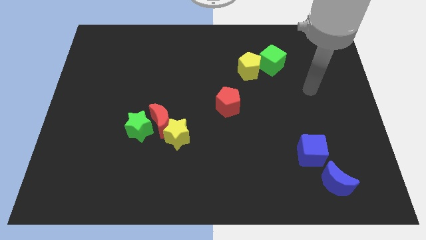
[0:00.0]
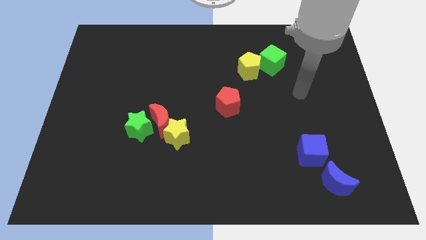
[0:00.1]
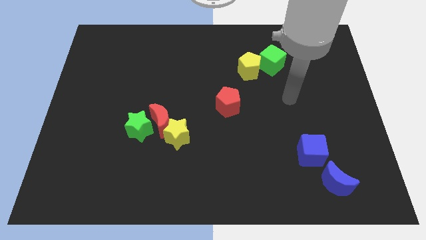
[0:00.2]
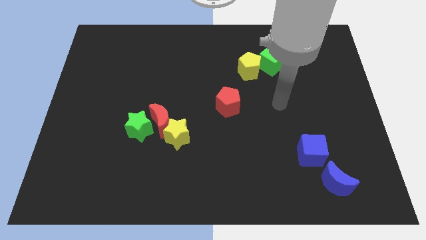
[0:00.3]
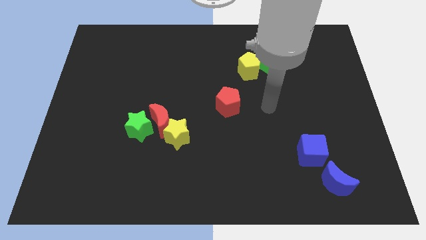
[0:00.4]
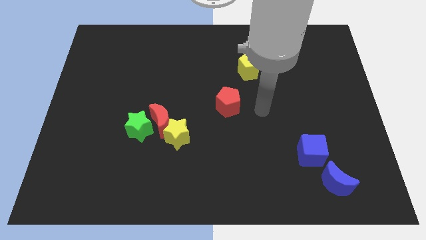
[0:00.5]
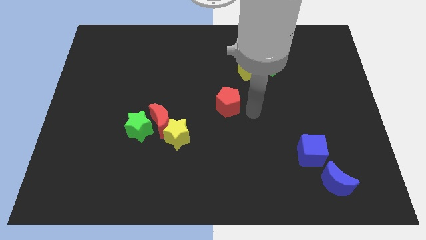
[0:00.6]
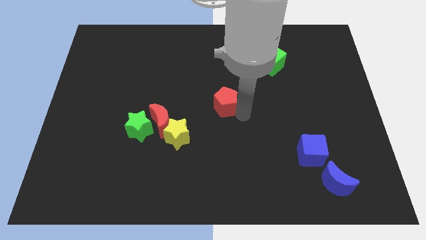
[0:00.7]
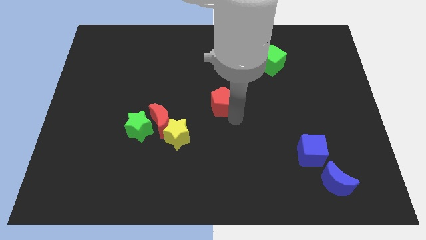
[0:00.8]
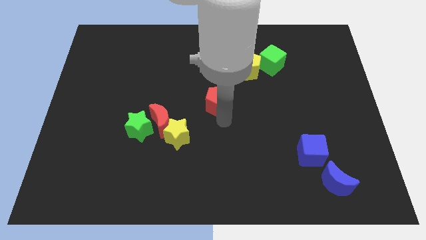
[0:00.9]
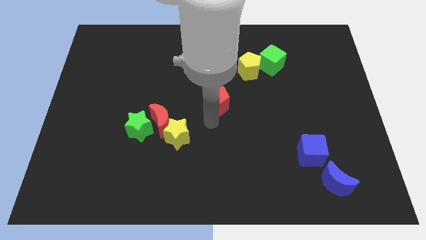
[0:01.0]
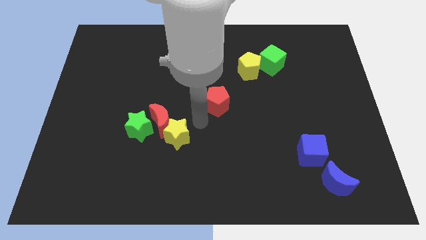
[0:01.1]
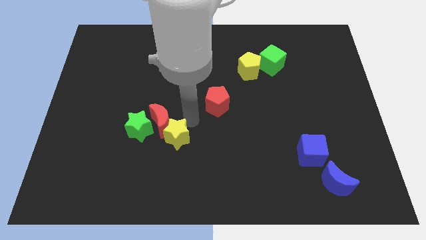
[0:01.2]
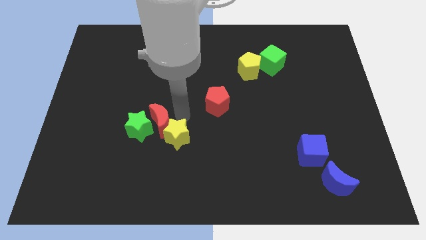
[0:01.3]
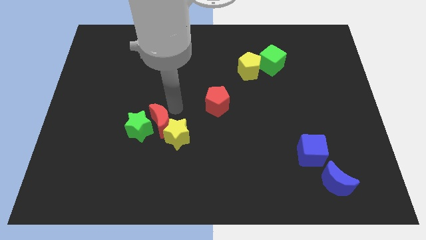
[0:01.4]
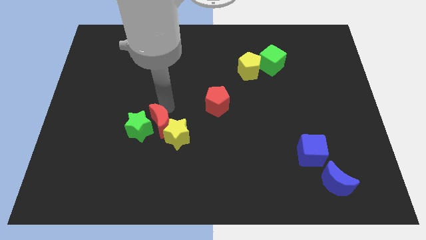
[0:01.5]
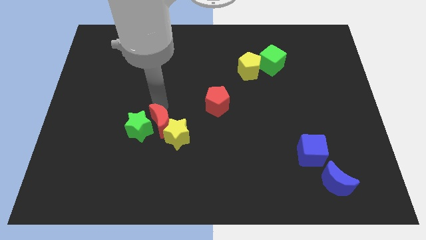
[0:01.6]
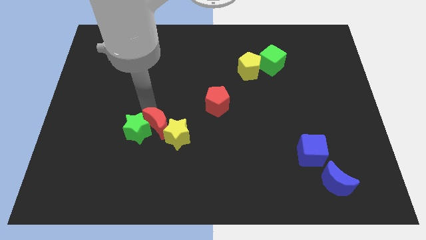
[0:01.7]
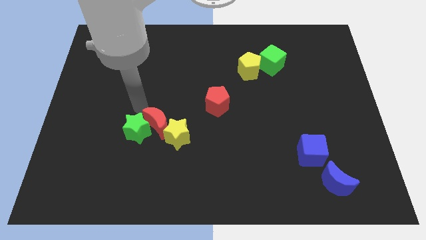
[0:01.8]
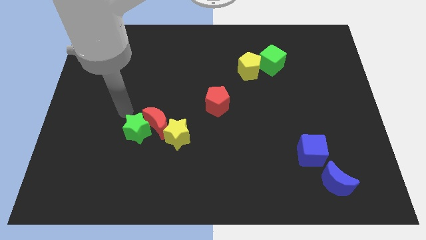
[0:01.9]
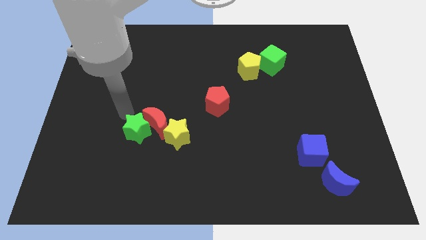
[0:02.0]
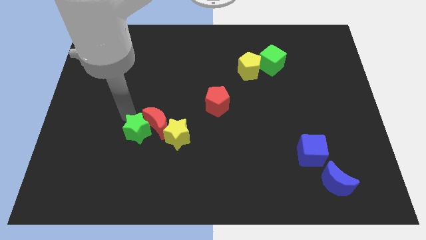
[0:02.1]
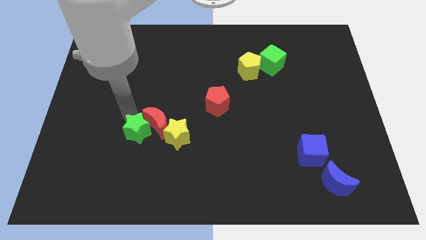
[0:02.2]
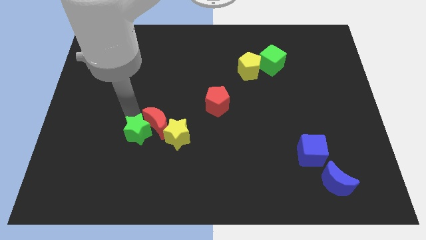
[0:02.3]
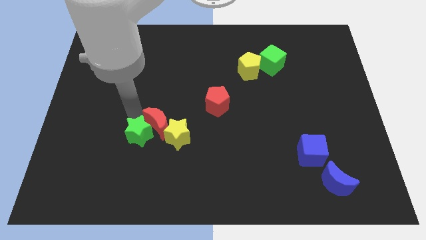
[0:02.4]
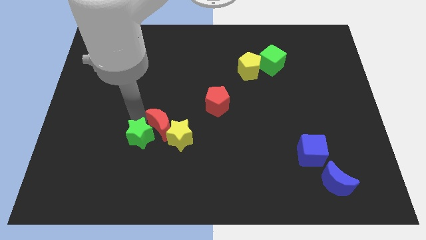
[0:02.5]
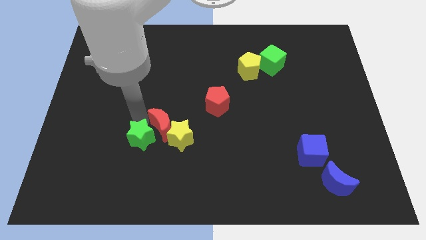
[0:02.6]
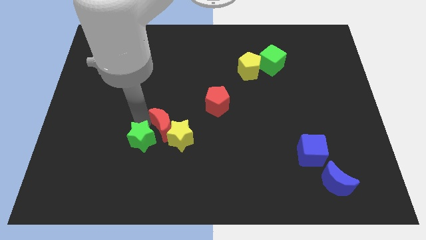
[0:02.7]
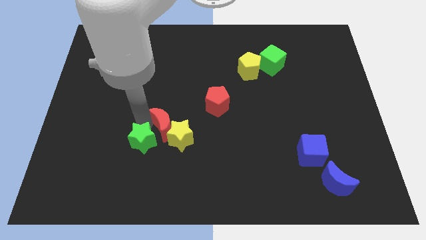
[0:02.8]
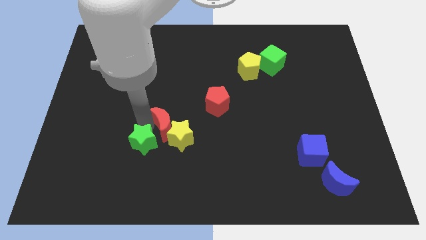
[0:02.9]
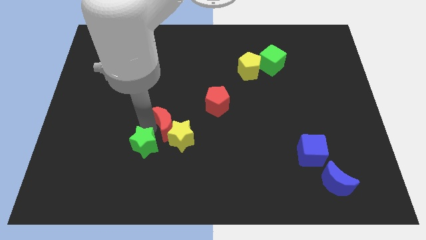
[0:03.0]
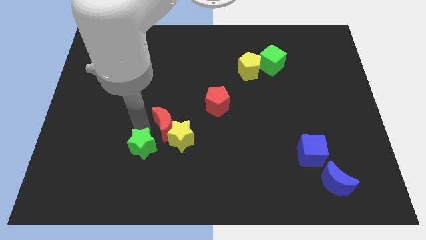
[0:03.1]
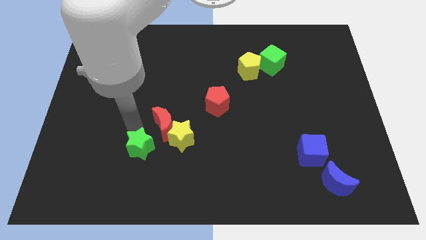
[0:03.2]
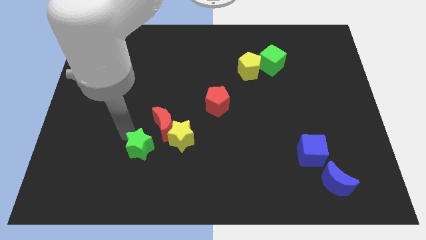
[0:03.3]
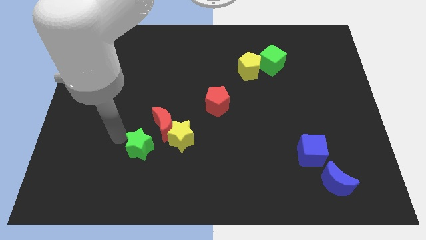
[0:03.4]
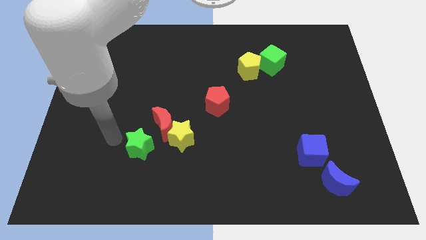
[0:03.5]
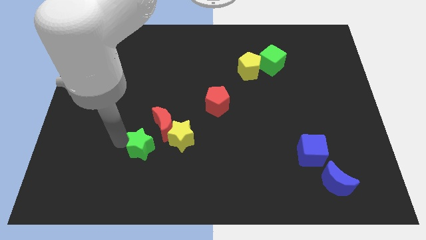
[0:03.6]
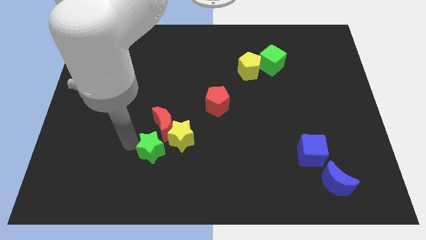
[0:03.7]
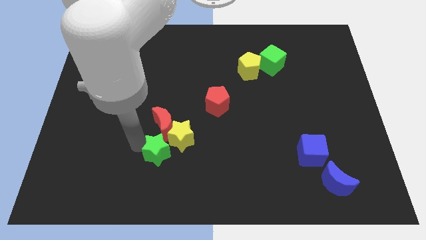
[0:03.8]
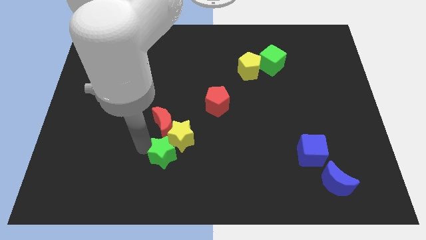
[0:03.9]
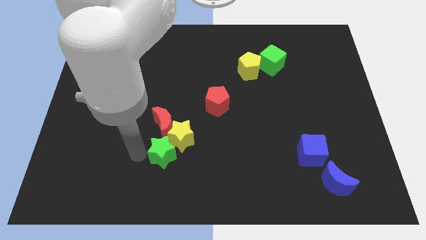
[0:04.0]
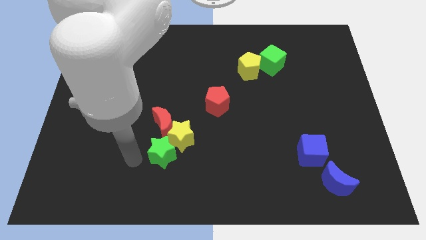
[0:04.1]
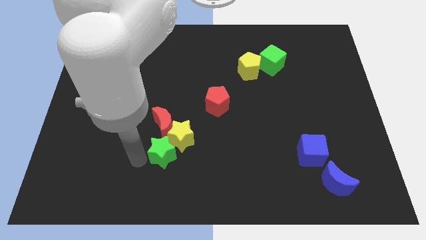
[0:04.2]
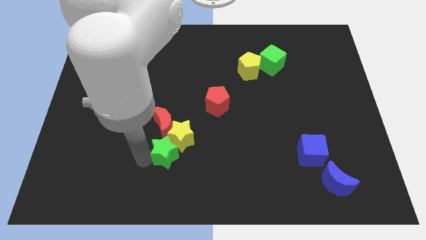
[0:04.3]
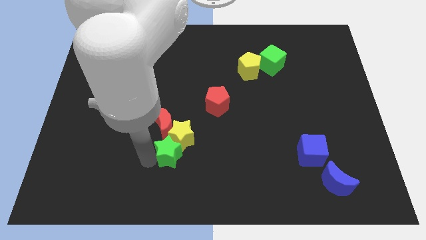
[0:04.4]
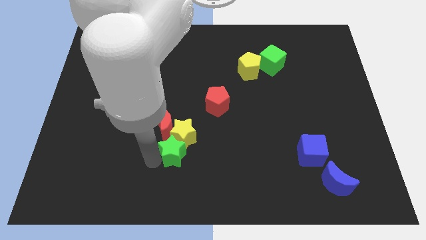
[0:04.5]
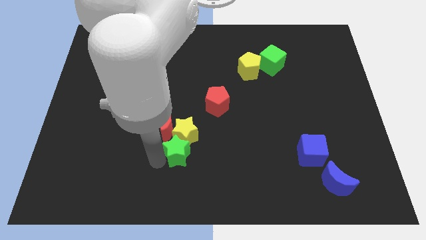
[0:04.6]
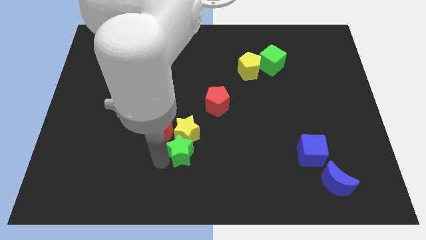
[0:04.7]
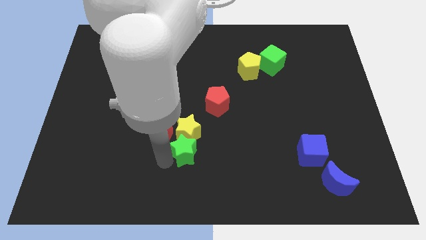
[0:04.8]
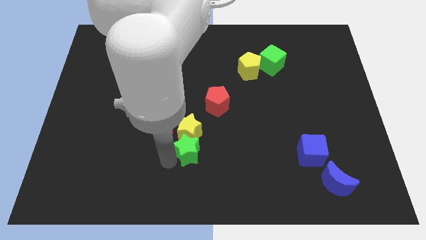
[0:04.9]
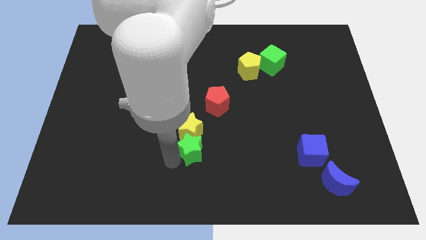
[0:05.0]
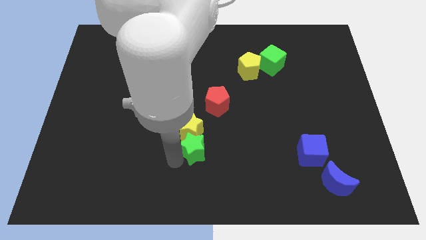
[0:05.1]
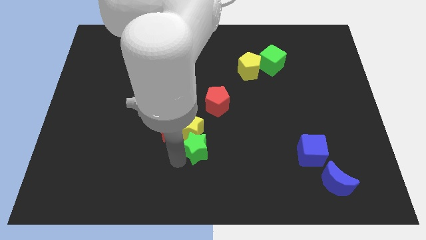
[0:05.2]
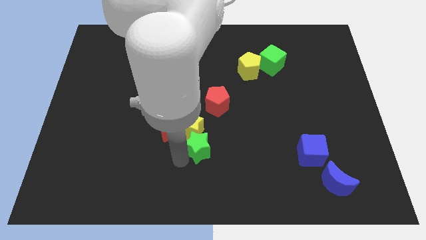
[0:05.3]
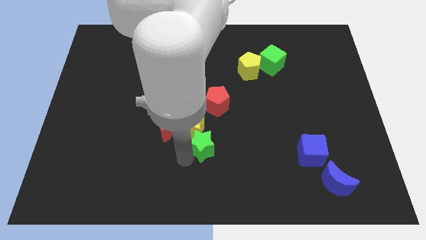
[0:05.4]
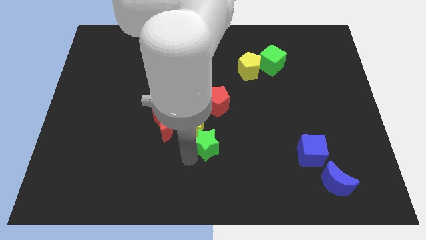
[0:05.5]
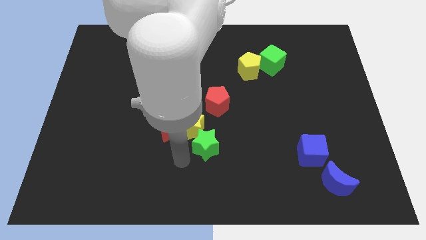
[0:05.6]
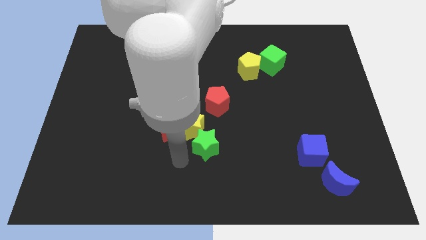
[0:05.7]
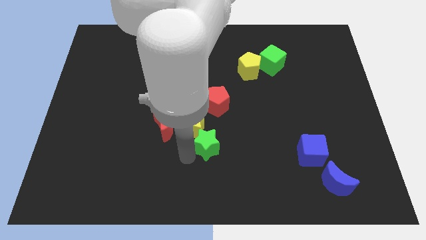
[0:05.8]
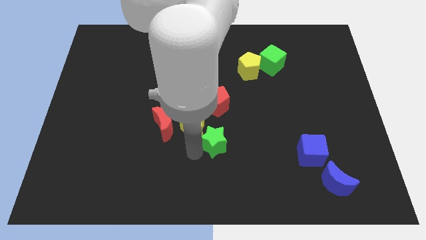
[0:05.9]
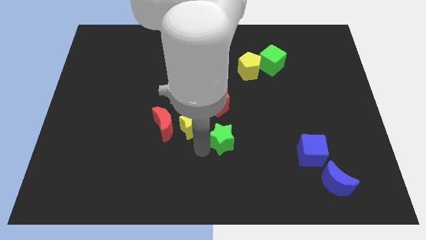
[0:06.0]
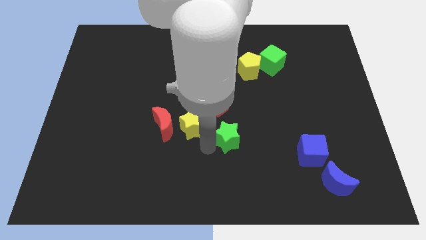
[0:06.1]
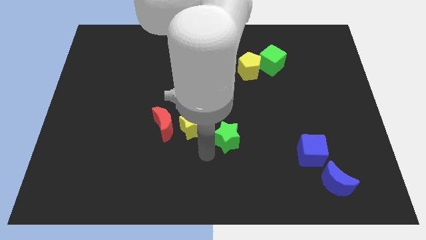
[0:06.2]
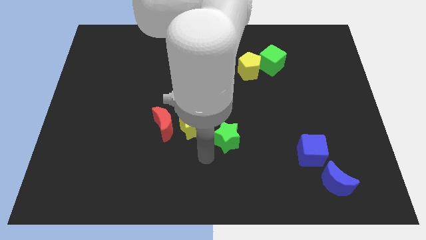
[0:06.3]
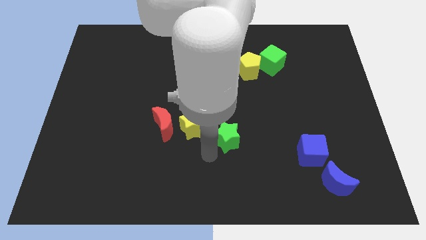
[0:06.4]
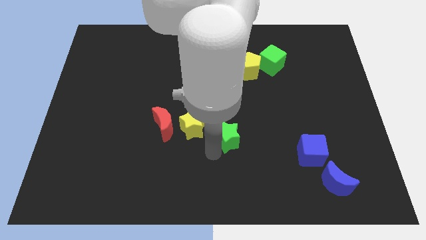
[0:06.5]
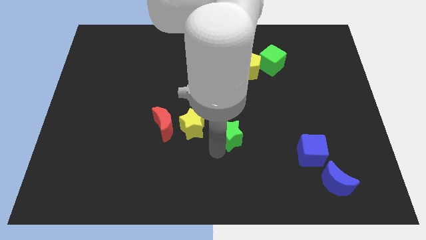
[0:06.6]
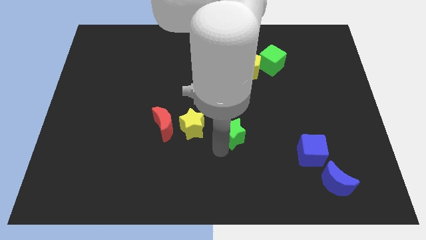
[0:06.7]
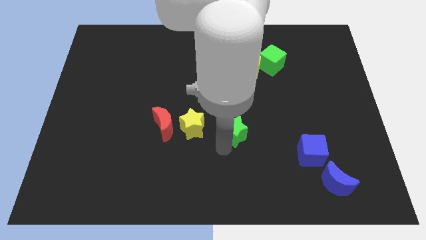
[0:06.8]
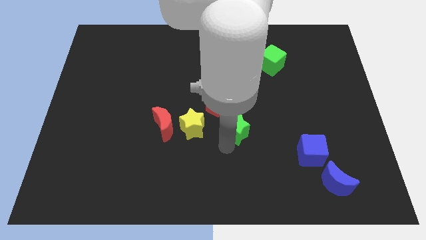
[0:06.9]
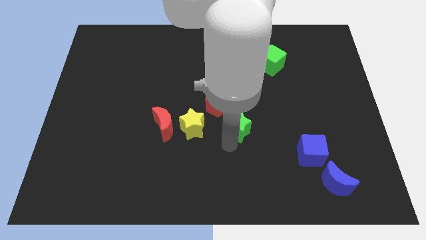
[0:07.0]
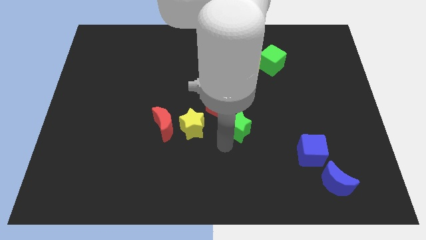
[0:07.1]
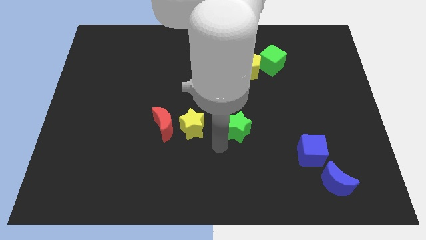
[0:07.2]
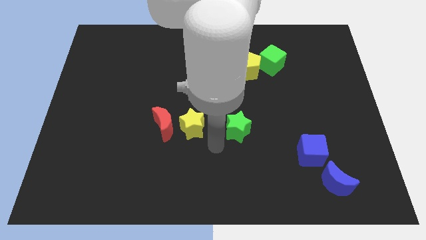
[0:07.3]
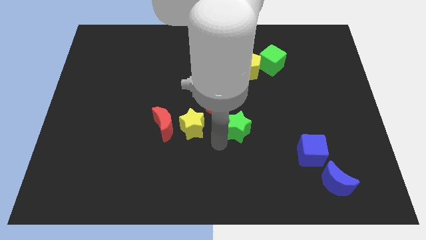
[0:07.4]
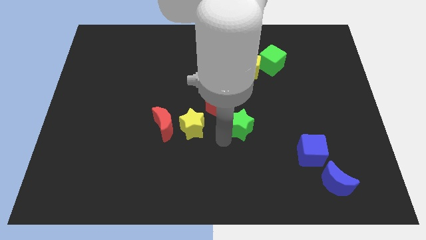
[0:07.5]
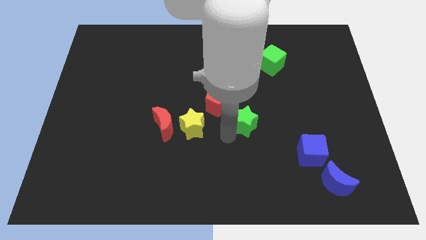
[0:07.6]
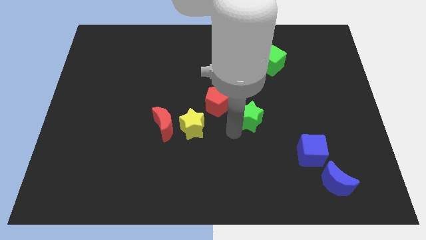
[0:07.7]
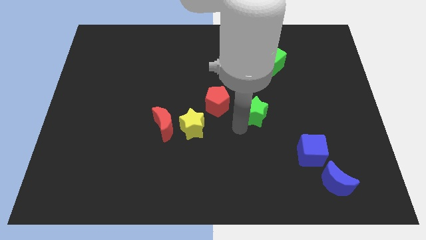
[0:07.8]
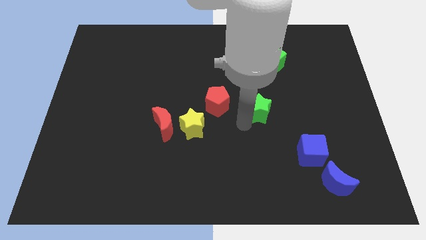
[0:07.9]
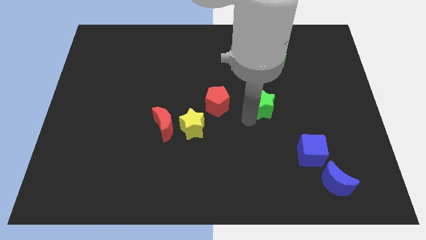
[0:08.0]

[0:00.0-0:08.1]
move the green star to the bottom of the green cube
